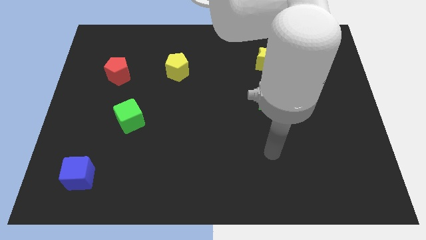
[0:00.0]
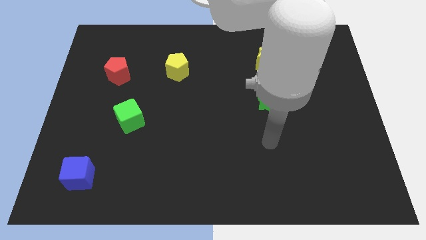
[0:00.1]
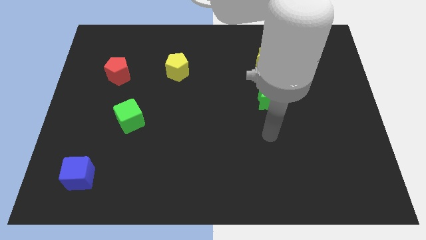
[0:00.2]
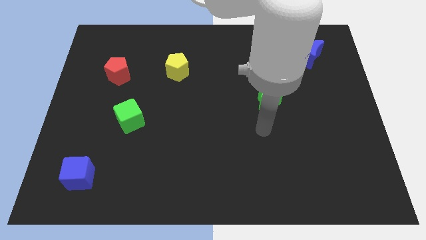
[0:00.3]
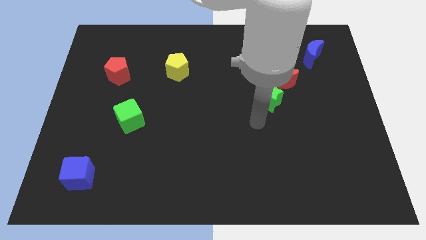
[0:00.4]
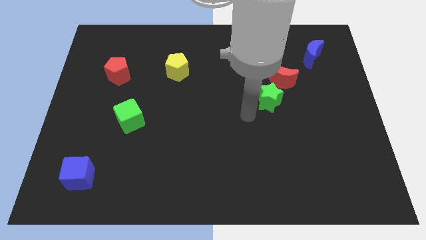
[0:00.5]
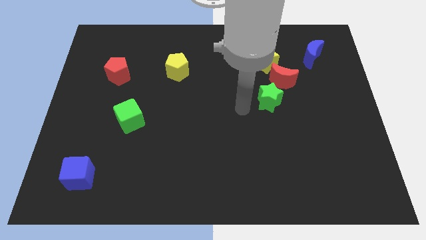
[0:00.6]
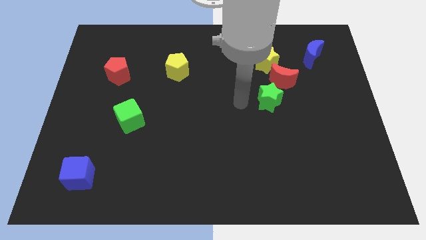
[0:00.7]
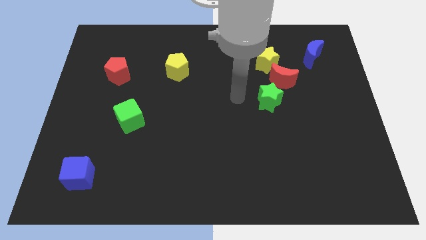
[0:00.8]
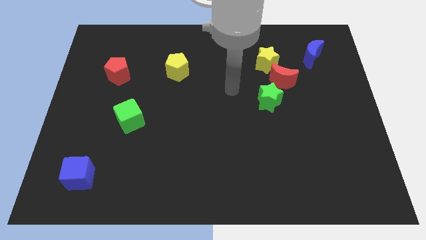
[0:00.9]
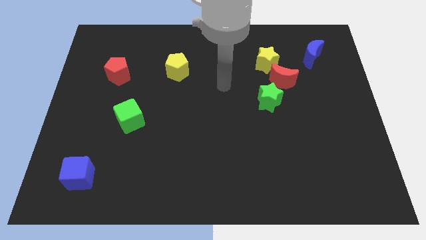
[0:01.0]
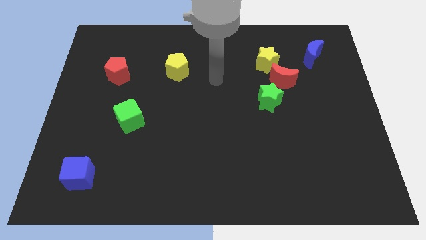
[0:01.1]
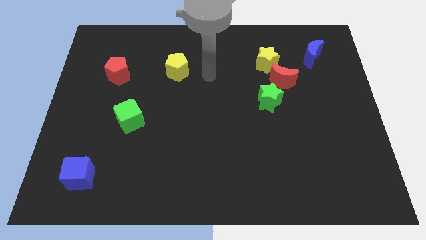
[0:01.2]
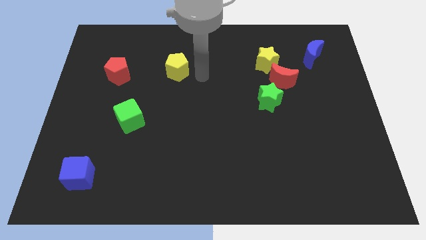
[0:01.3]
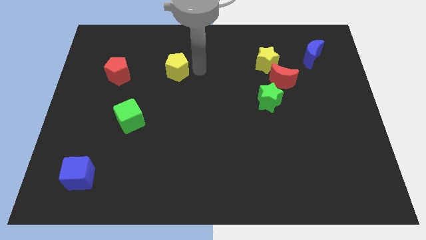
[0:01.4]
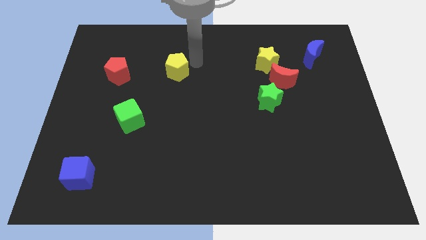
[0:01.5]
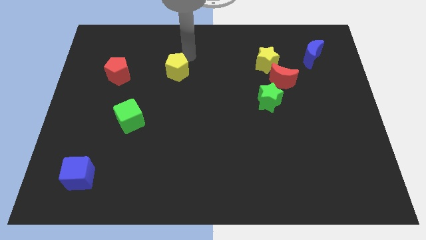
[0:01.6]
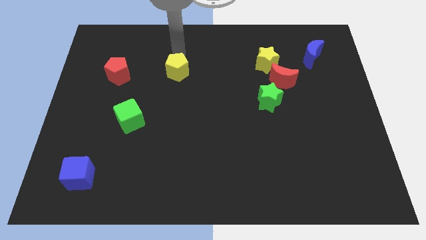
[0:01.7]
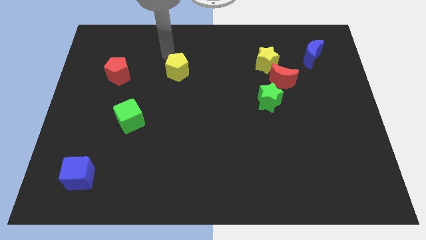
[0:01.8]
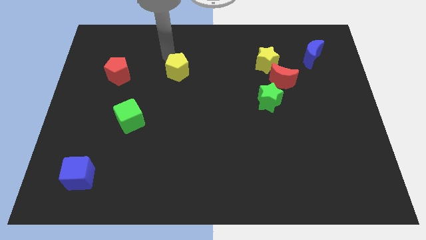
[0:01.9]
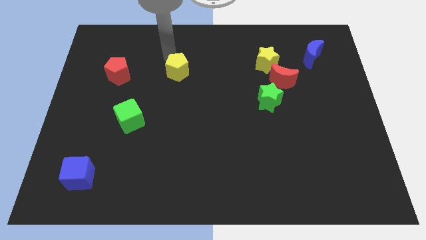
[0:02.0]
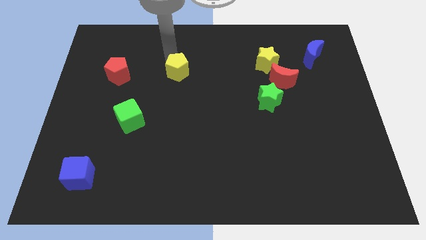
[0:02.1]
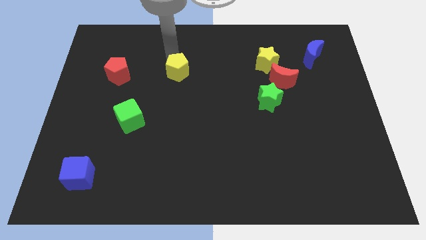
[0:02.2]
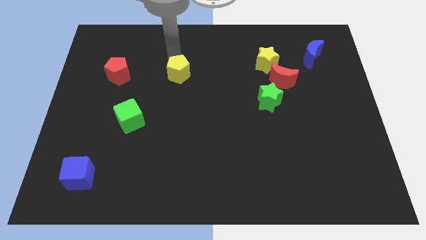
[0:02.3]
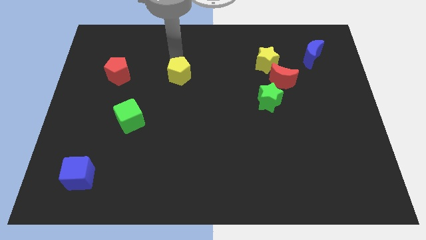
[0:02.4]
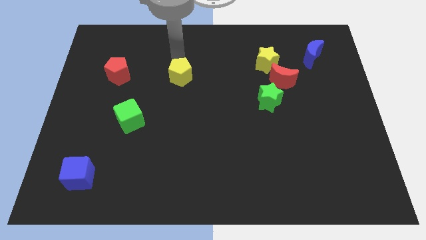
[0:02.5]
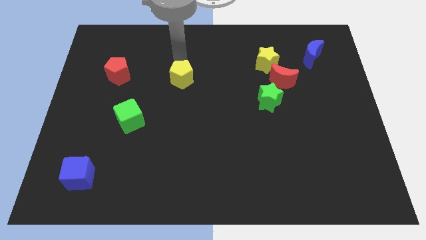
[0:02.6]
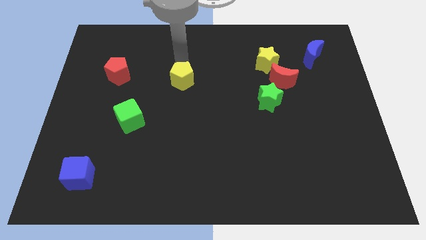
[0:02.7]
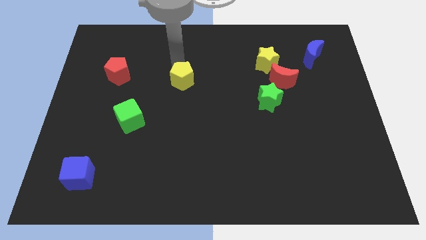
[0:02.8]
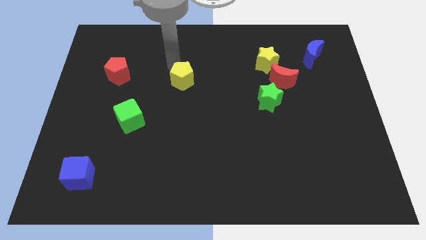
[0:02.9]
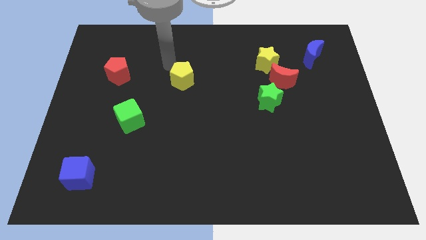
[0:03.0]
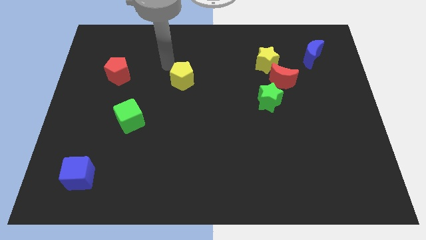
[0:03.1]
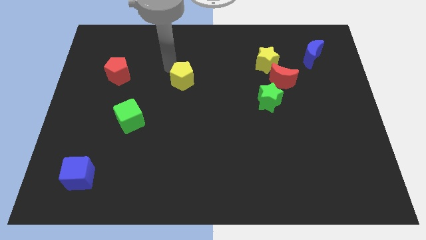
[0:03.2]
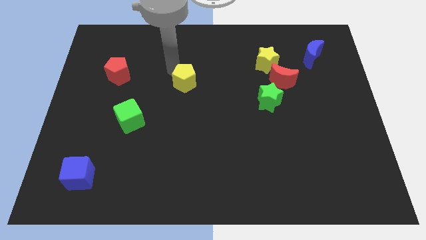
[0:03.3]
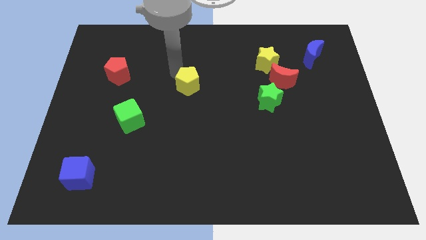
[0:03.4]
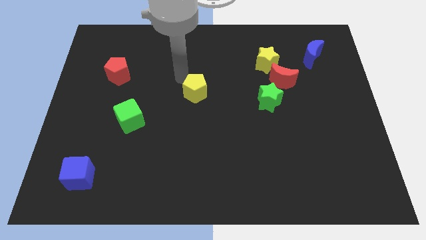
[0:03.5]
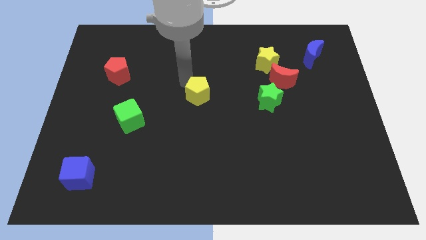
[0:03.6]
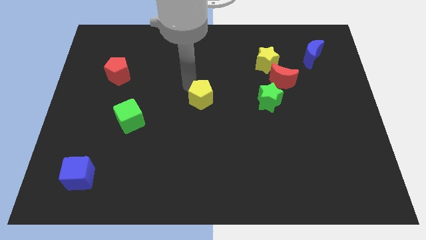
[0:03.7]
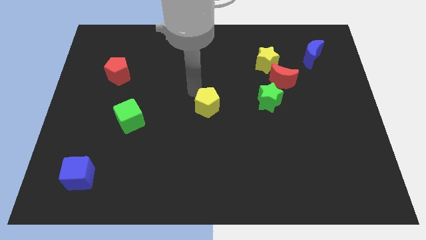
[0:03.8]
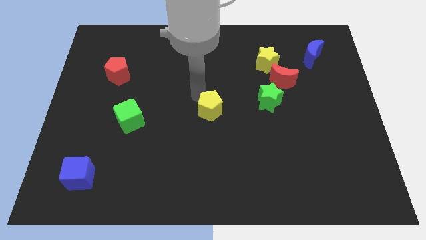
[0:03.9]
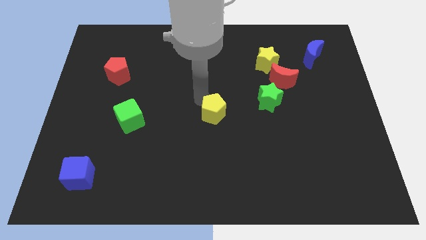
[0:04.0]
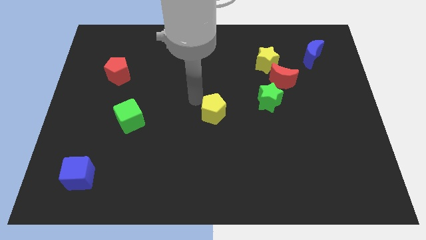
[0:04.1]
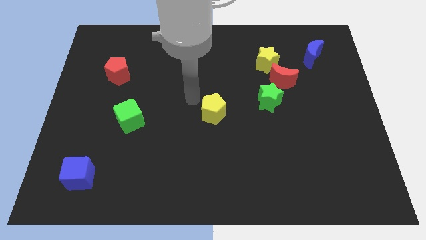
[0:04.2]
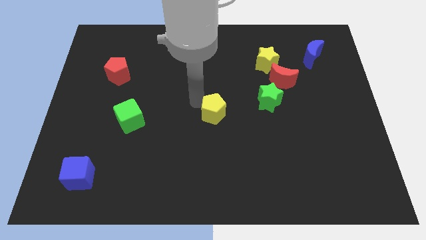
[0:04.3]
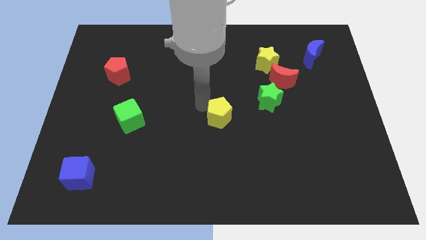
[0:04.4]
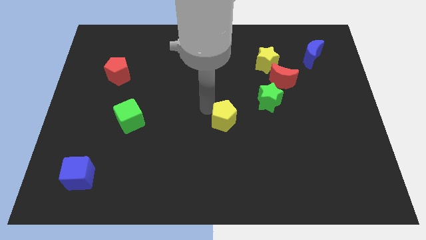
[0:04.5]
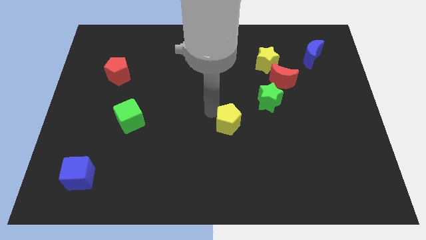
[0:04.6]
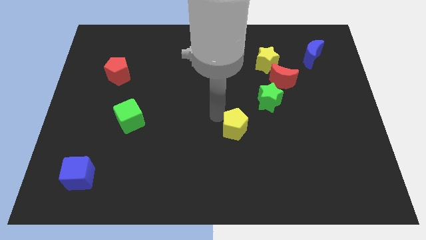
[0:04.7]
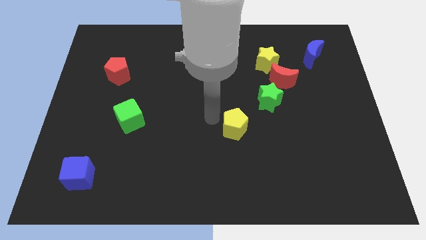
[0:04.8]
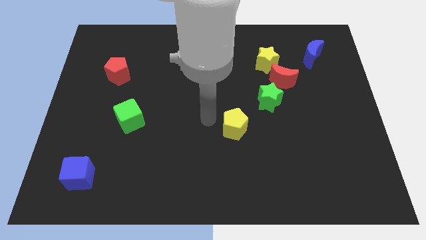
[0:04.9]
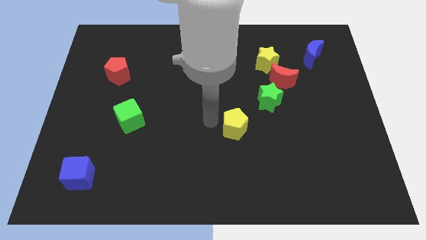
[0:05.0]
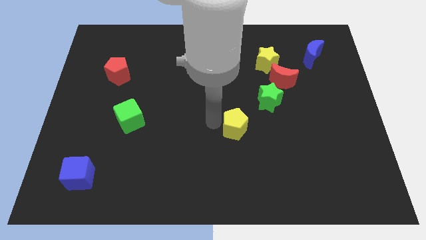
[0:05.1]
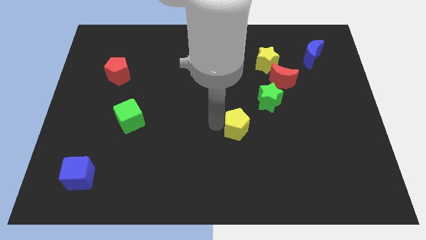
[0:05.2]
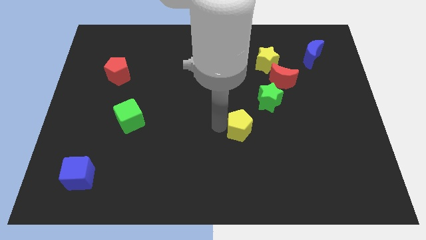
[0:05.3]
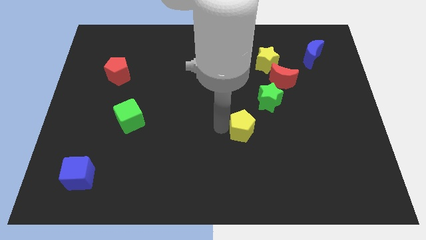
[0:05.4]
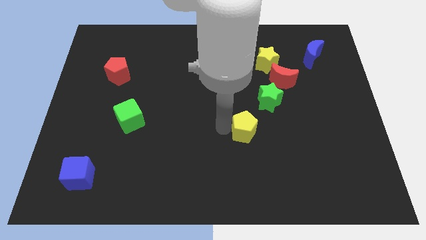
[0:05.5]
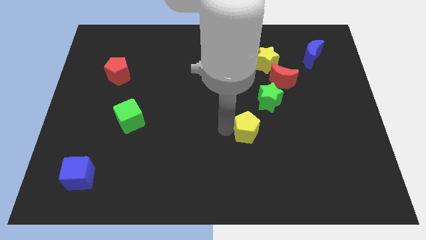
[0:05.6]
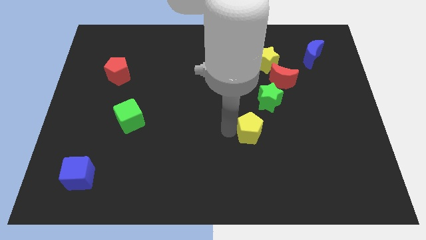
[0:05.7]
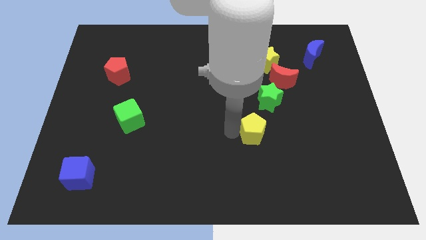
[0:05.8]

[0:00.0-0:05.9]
slide the yellow pentagon below the green star

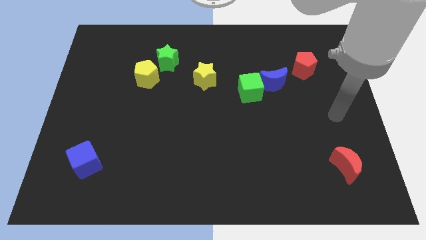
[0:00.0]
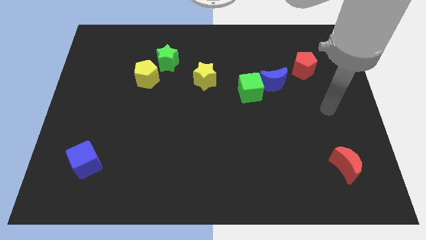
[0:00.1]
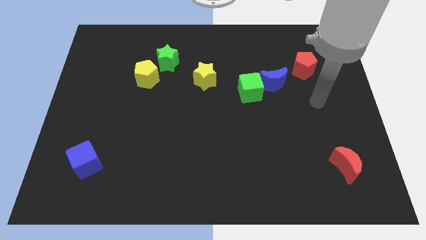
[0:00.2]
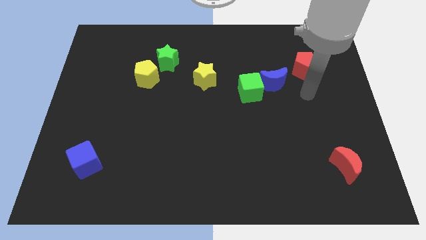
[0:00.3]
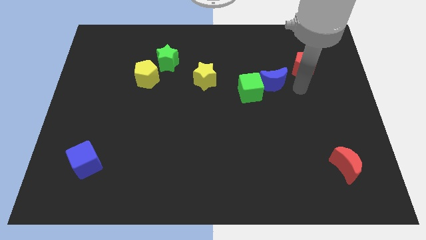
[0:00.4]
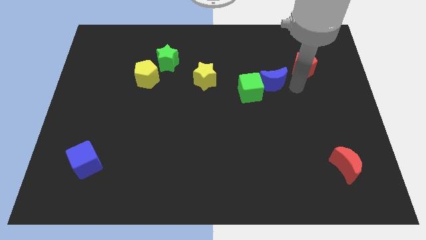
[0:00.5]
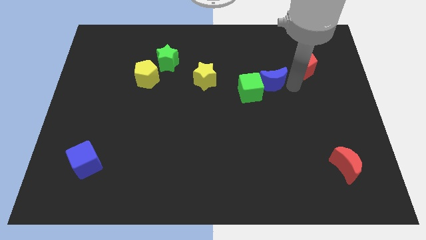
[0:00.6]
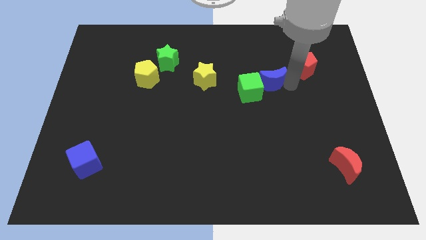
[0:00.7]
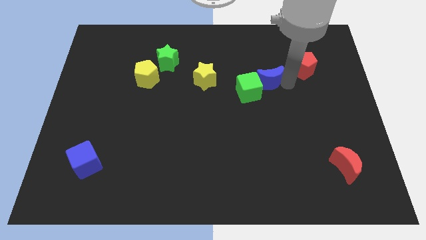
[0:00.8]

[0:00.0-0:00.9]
move the blue moon just right of the yellow star

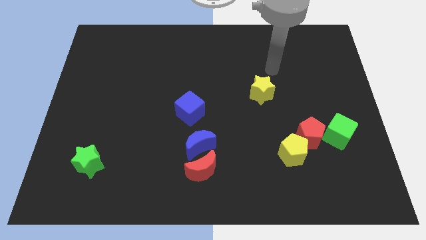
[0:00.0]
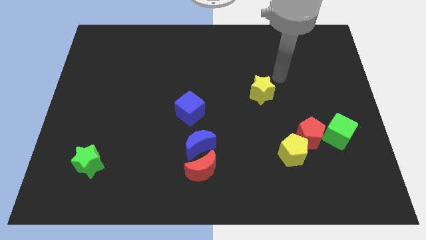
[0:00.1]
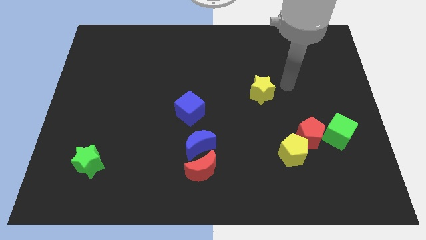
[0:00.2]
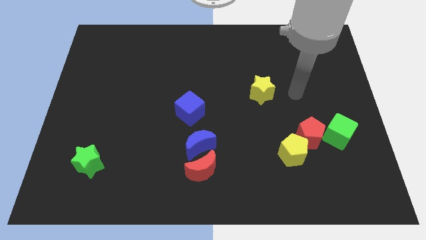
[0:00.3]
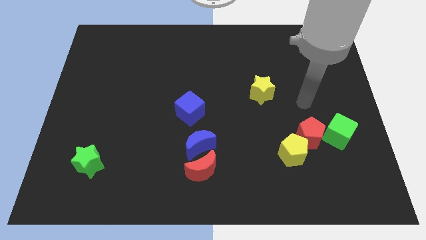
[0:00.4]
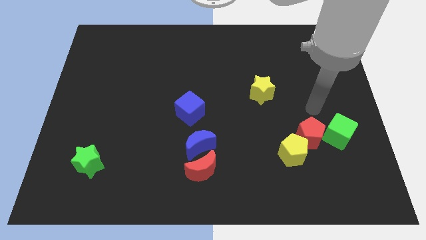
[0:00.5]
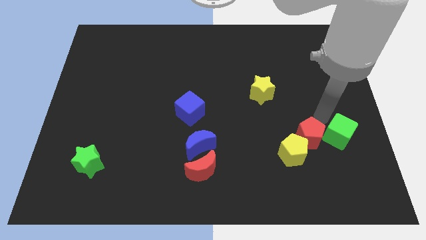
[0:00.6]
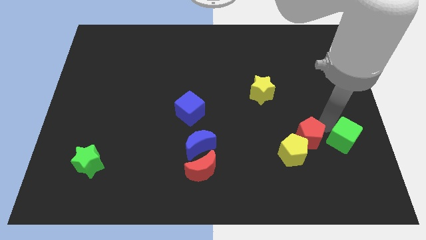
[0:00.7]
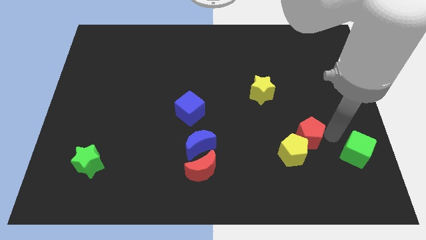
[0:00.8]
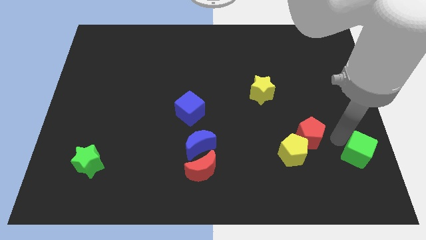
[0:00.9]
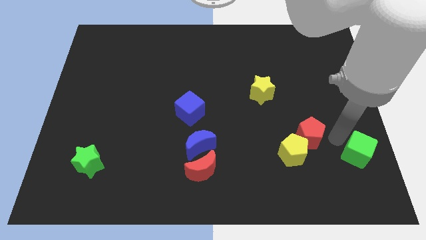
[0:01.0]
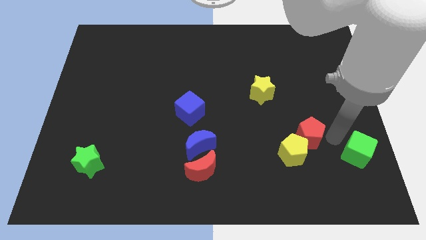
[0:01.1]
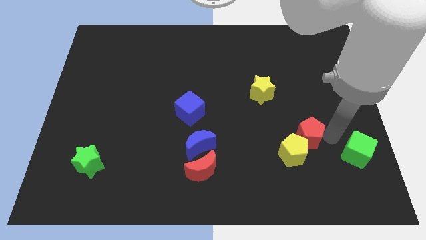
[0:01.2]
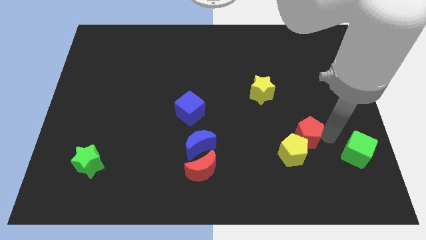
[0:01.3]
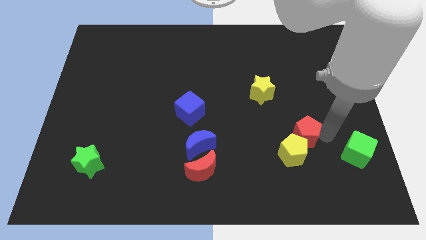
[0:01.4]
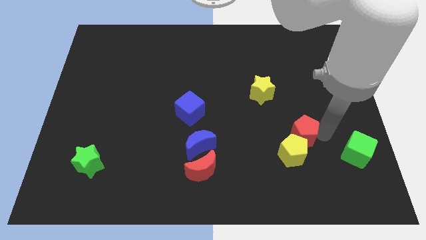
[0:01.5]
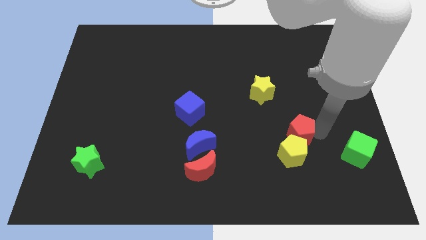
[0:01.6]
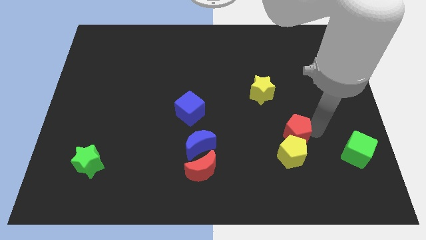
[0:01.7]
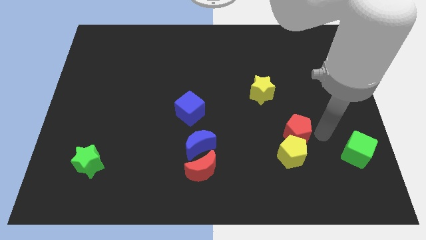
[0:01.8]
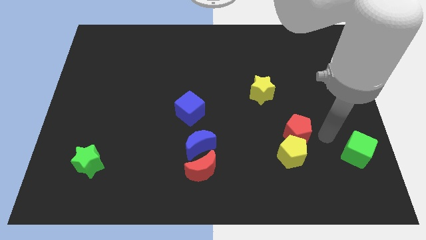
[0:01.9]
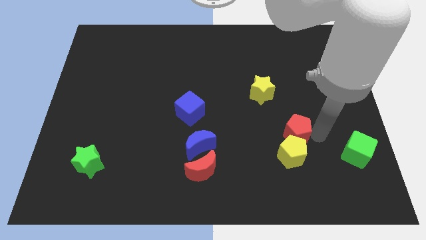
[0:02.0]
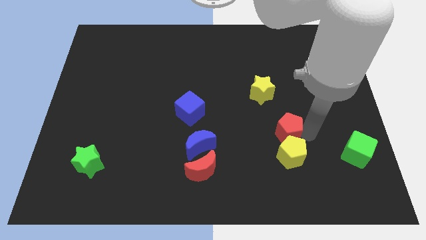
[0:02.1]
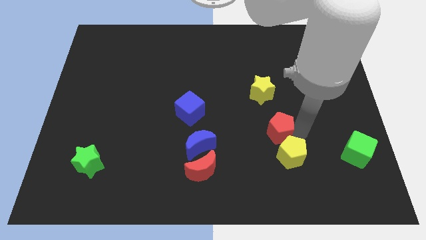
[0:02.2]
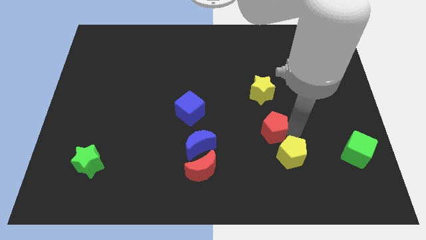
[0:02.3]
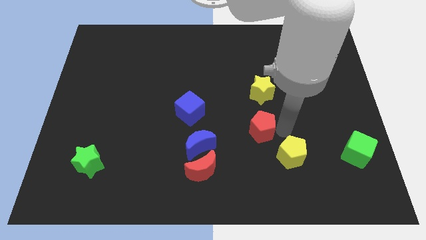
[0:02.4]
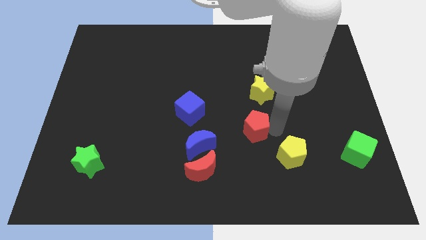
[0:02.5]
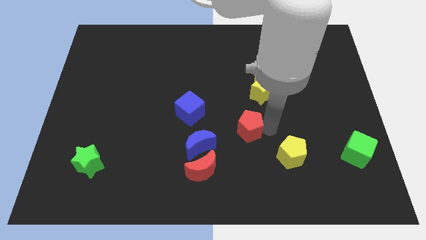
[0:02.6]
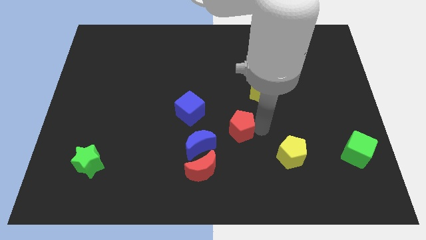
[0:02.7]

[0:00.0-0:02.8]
put the red pentagon to the top right side of the blue moon
